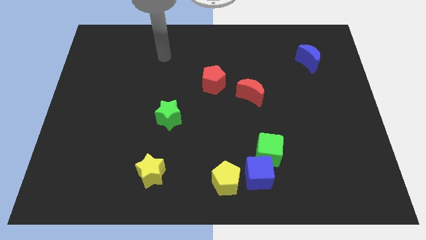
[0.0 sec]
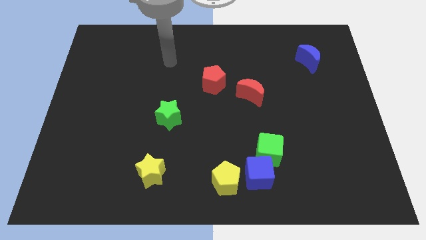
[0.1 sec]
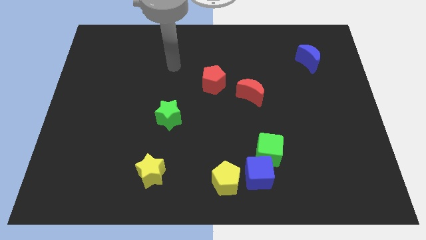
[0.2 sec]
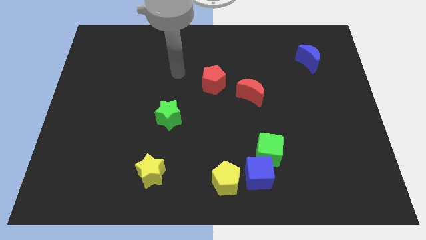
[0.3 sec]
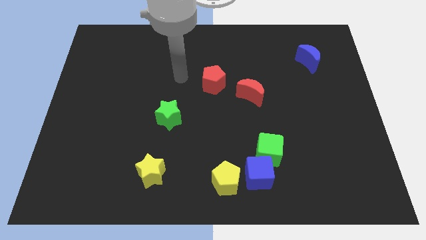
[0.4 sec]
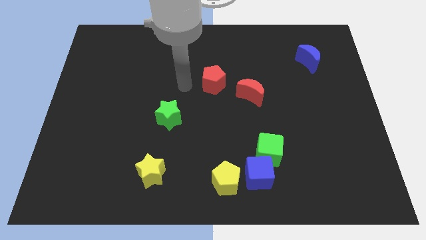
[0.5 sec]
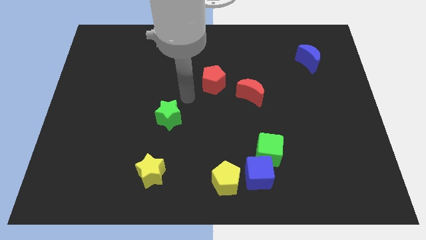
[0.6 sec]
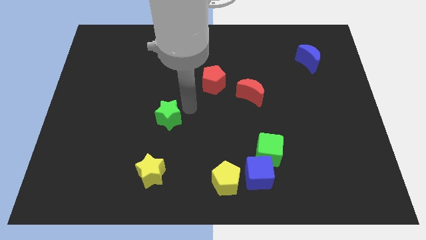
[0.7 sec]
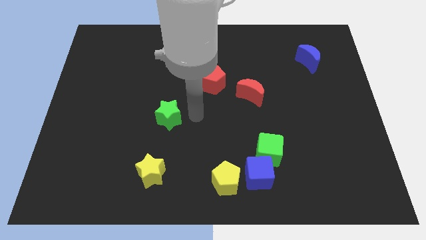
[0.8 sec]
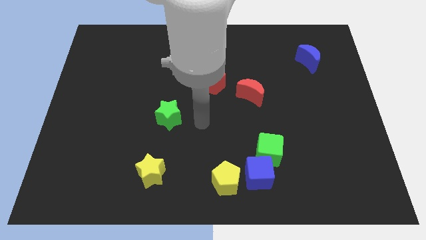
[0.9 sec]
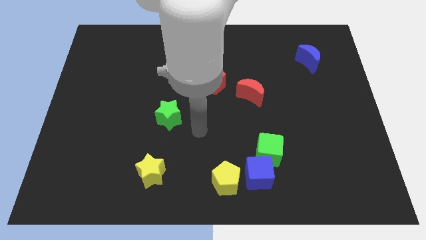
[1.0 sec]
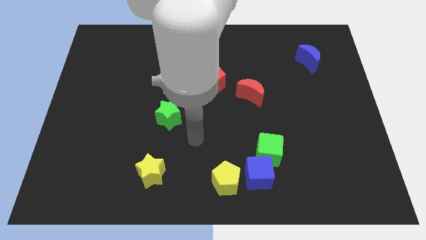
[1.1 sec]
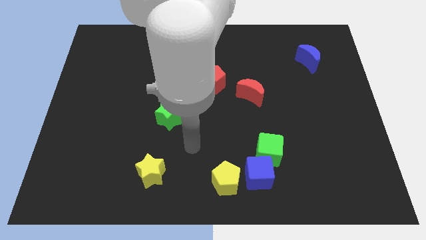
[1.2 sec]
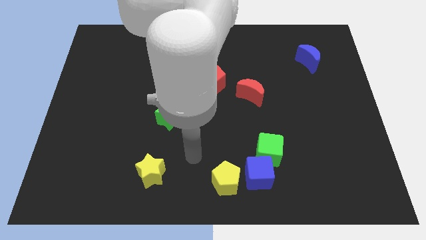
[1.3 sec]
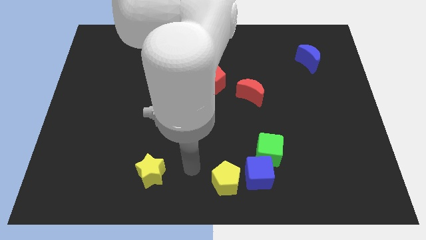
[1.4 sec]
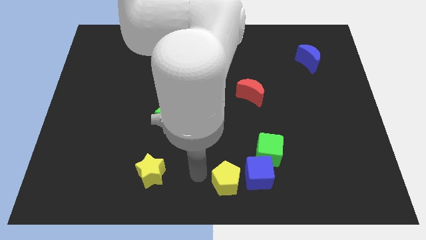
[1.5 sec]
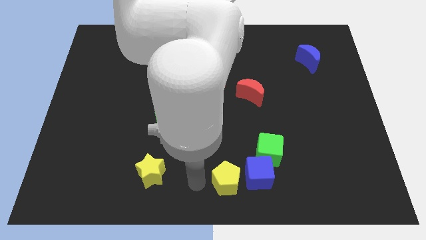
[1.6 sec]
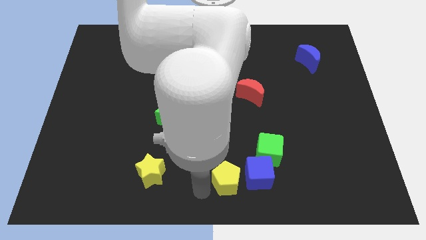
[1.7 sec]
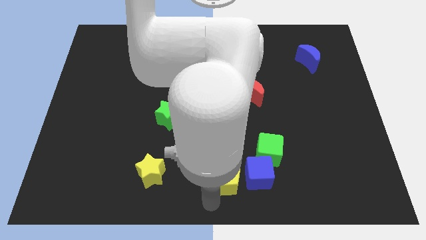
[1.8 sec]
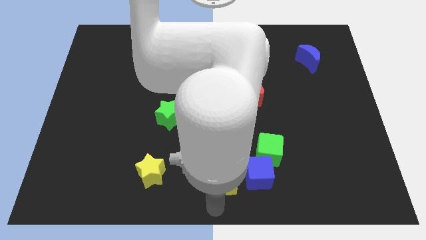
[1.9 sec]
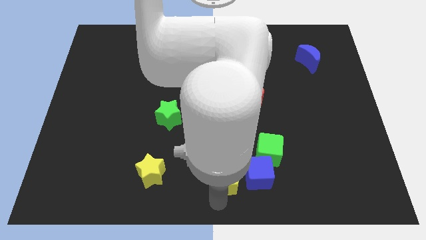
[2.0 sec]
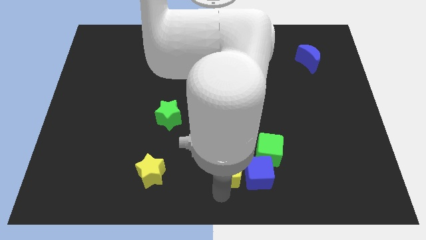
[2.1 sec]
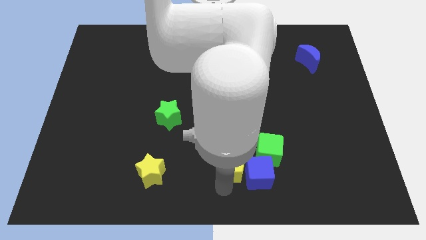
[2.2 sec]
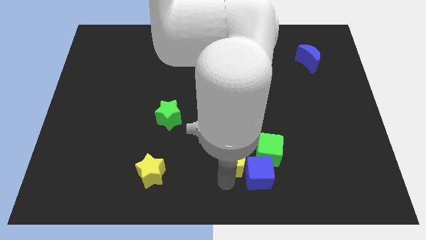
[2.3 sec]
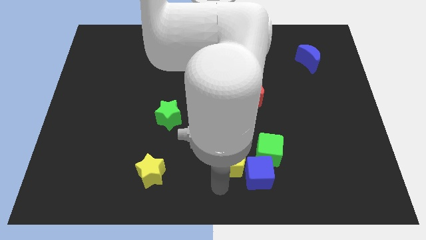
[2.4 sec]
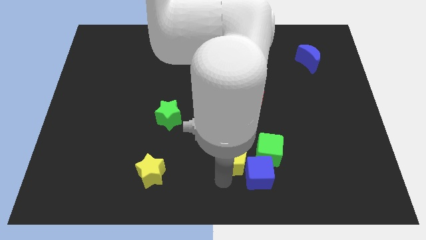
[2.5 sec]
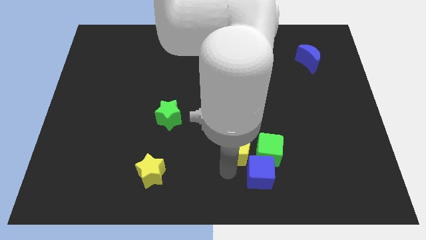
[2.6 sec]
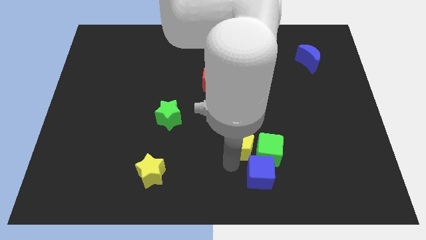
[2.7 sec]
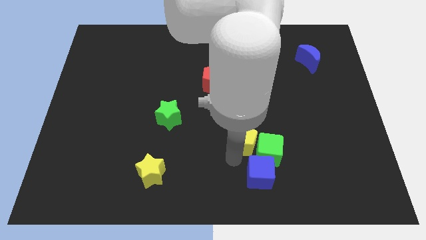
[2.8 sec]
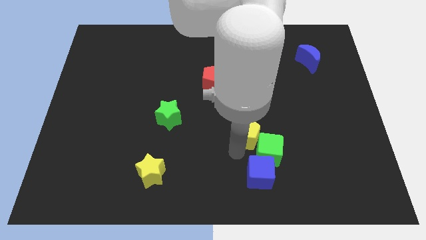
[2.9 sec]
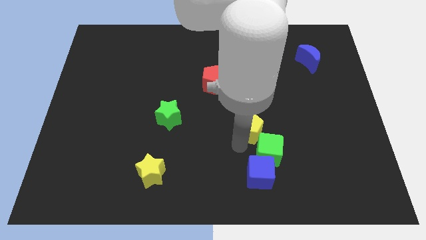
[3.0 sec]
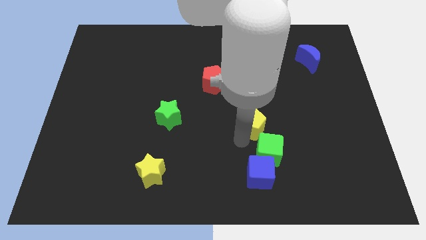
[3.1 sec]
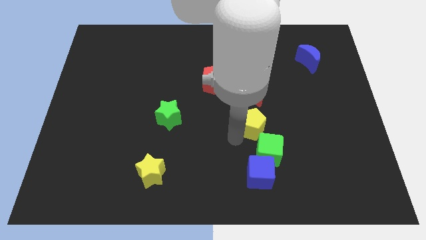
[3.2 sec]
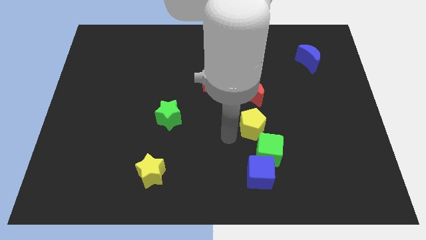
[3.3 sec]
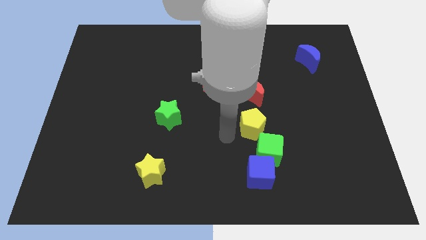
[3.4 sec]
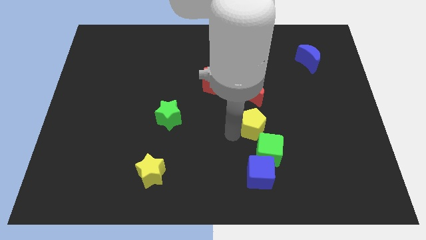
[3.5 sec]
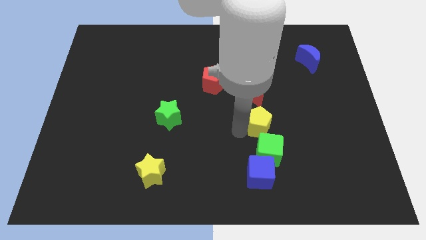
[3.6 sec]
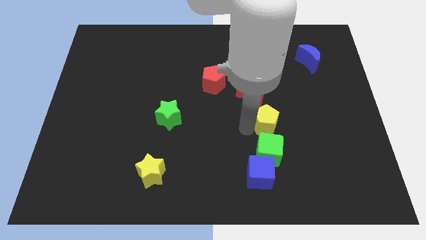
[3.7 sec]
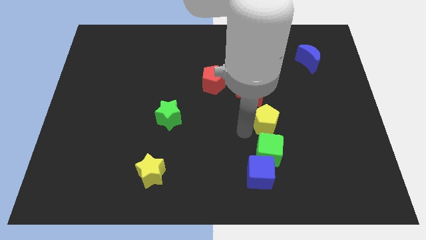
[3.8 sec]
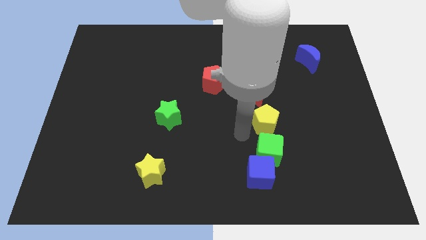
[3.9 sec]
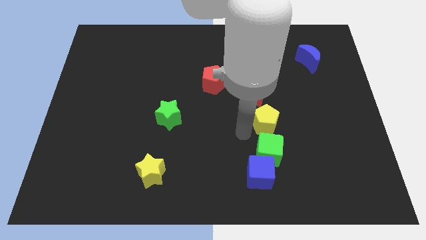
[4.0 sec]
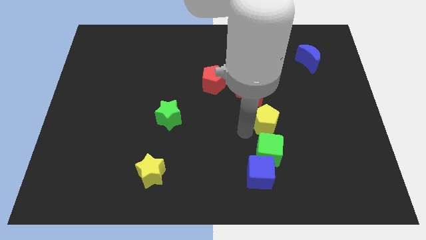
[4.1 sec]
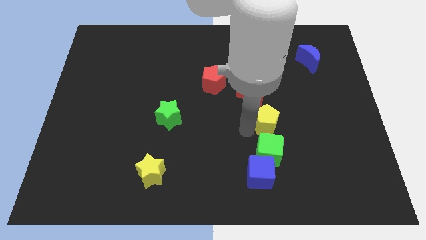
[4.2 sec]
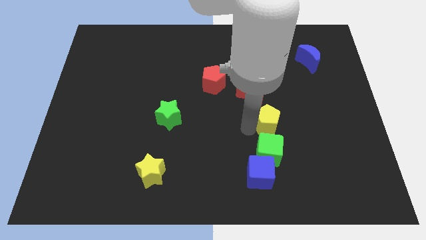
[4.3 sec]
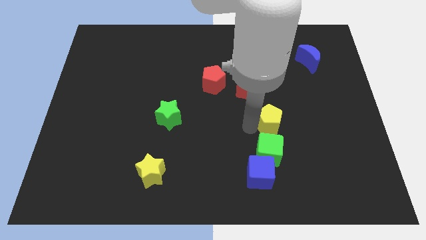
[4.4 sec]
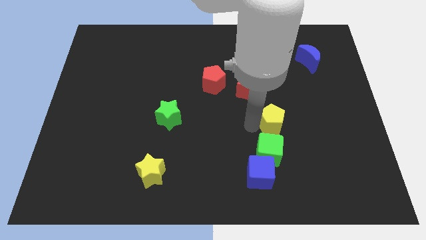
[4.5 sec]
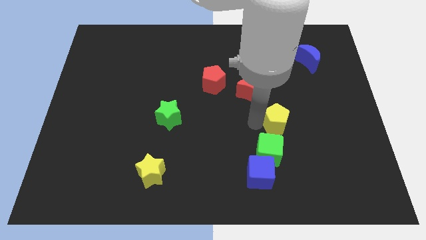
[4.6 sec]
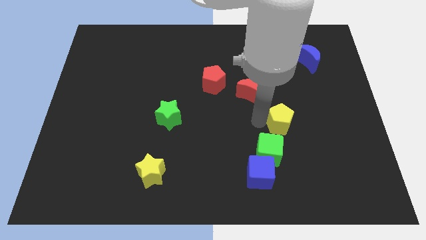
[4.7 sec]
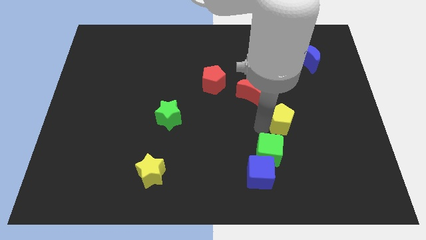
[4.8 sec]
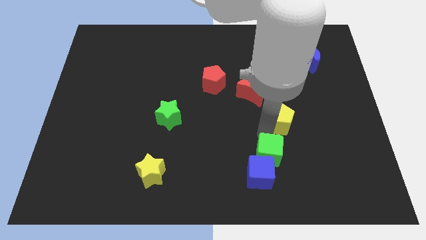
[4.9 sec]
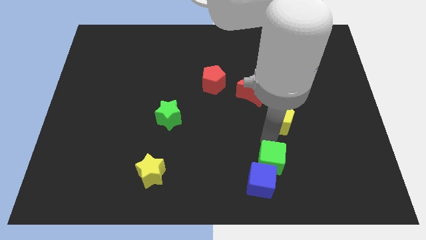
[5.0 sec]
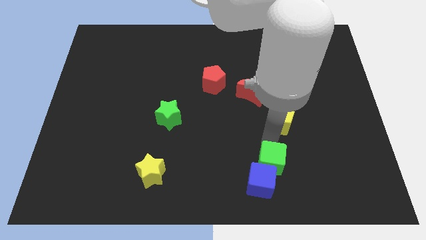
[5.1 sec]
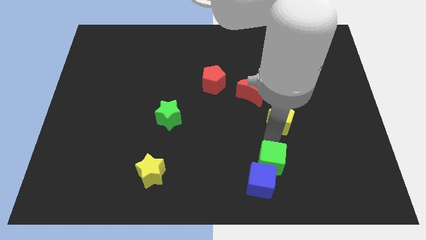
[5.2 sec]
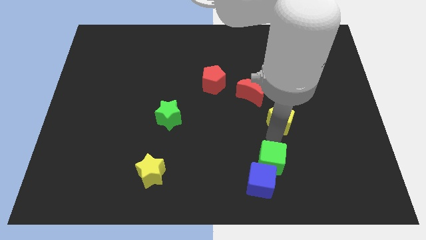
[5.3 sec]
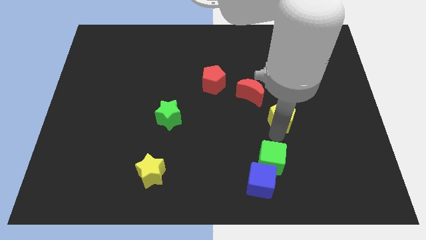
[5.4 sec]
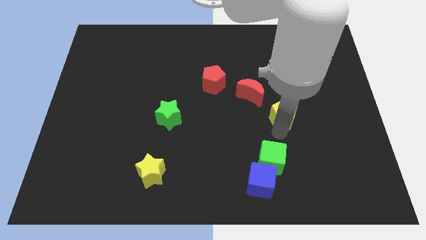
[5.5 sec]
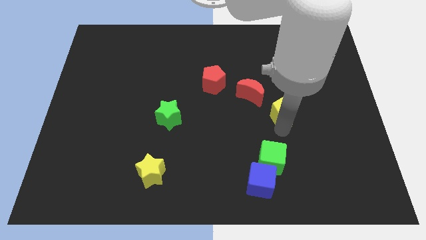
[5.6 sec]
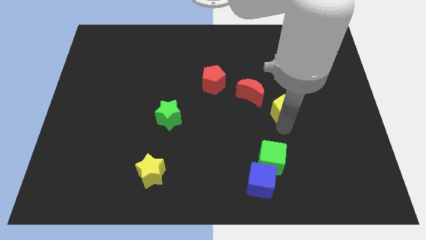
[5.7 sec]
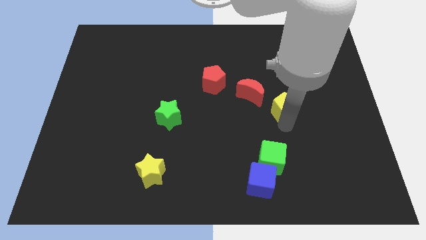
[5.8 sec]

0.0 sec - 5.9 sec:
slide the yellow pentagon right of the red moon
